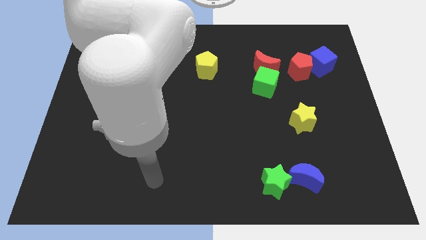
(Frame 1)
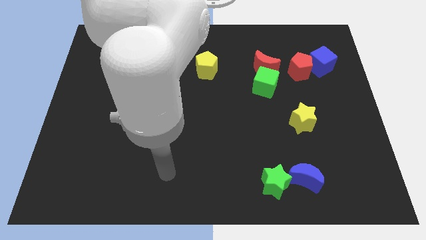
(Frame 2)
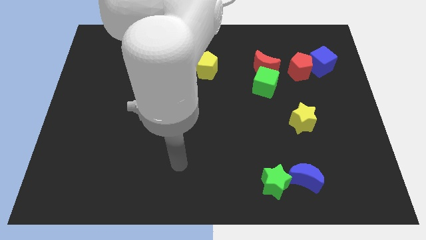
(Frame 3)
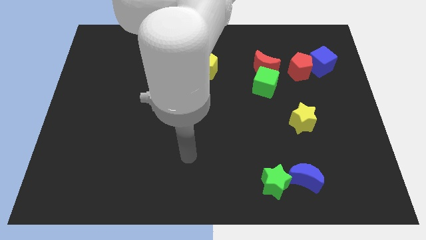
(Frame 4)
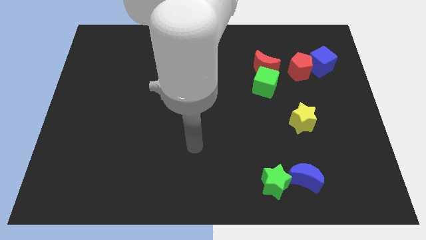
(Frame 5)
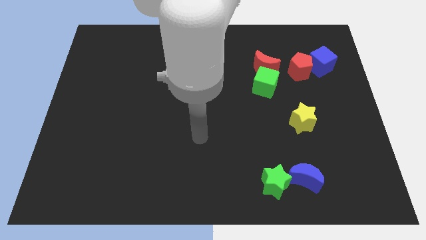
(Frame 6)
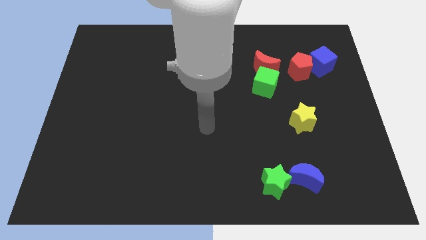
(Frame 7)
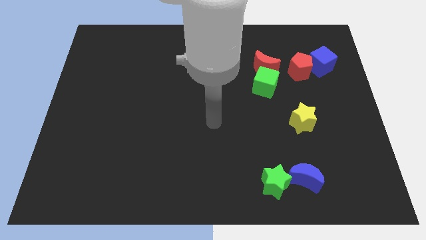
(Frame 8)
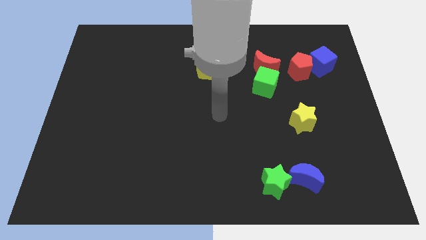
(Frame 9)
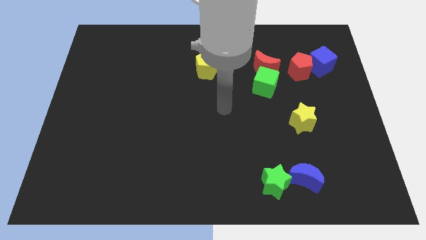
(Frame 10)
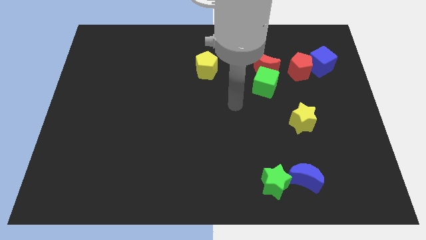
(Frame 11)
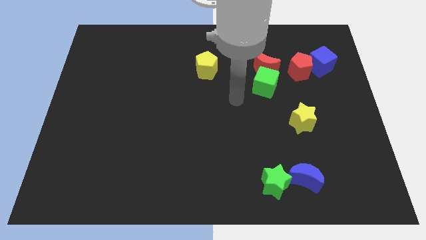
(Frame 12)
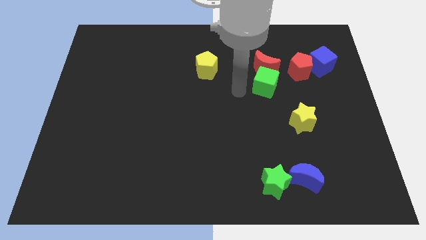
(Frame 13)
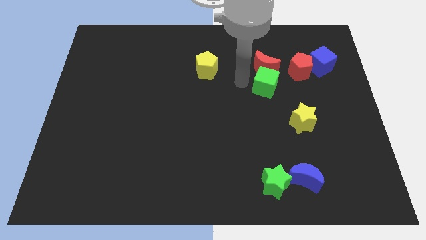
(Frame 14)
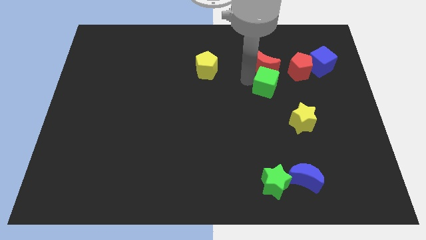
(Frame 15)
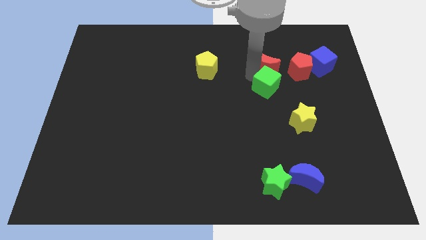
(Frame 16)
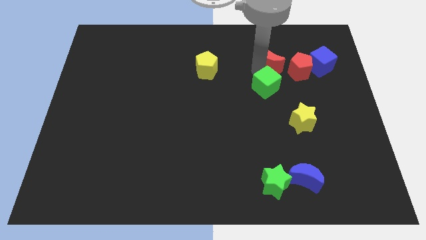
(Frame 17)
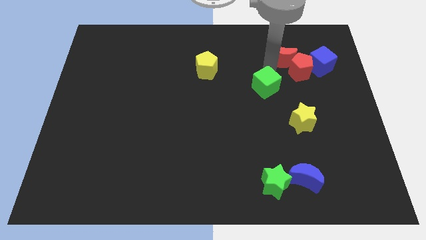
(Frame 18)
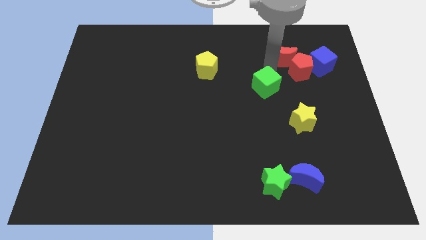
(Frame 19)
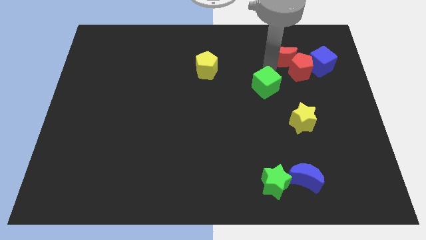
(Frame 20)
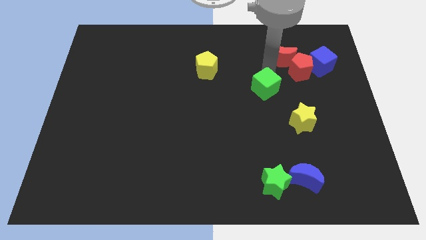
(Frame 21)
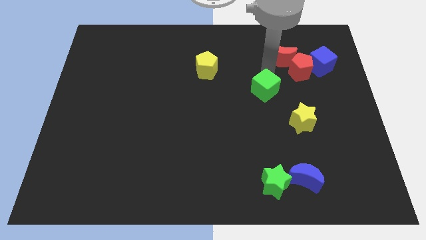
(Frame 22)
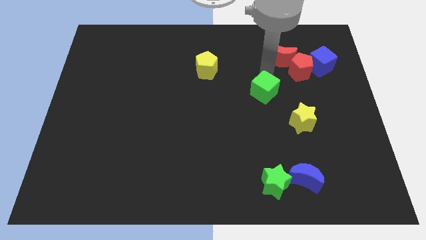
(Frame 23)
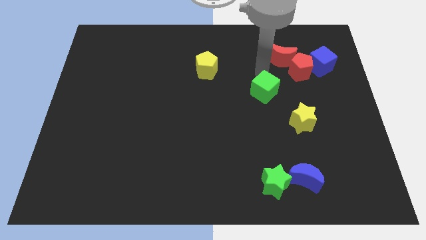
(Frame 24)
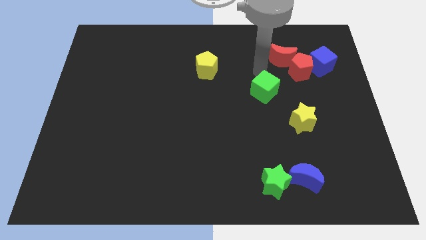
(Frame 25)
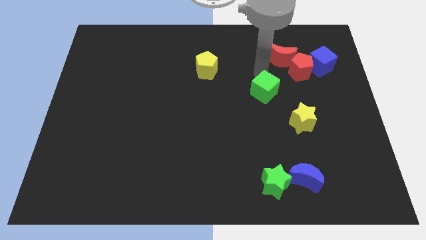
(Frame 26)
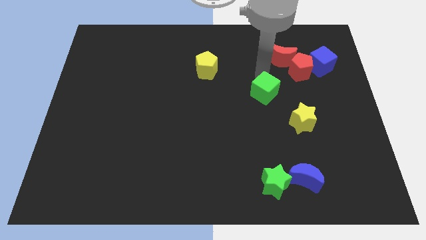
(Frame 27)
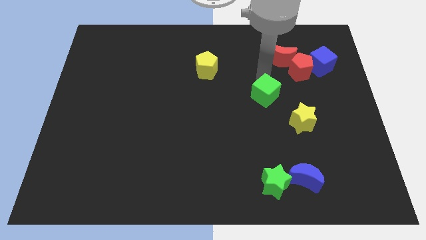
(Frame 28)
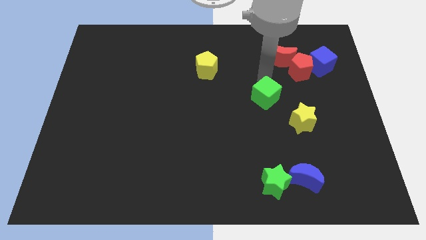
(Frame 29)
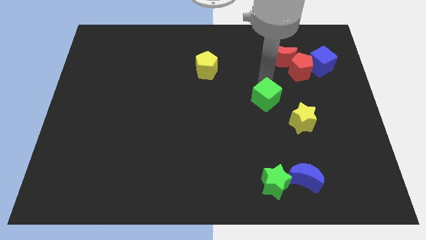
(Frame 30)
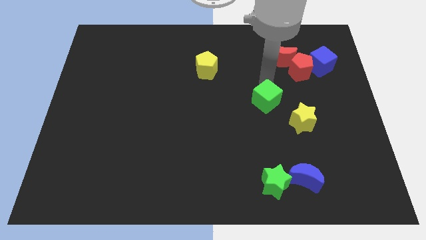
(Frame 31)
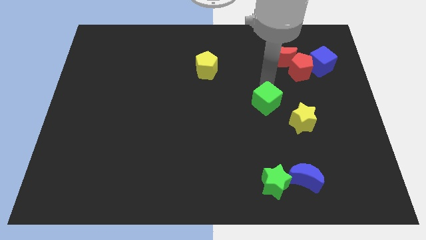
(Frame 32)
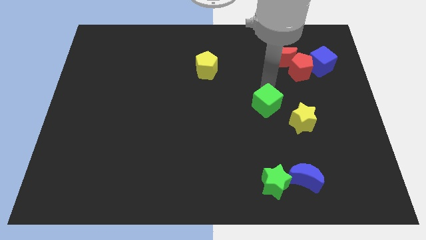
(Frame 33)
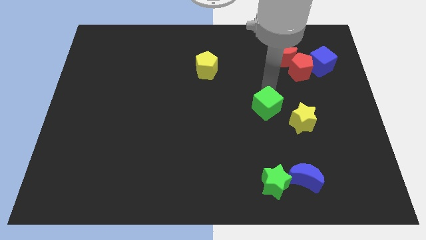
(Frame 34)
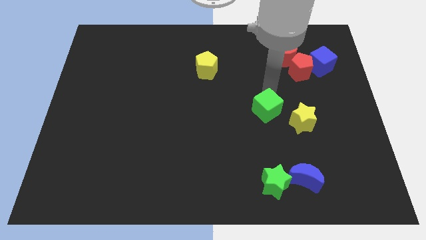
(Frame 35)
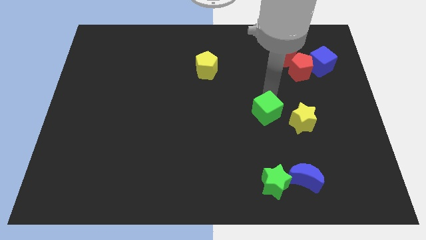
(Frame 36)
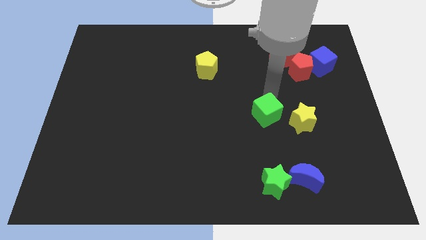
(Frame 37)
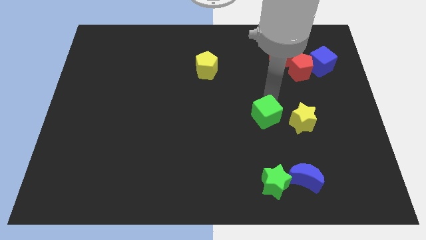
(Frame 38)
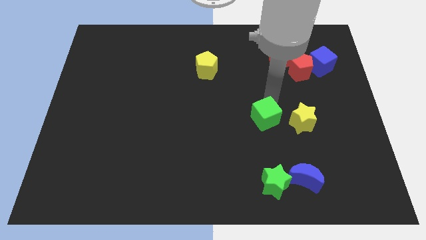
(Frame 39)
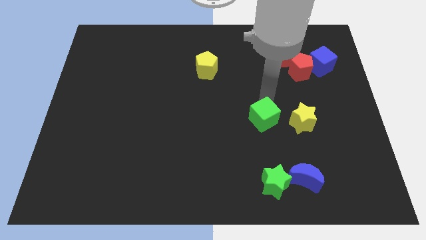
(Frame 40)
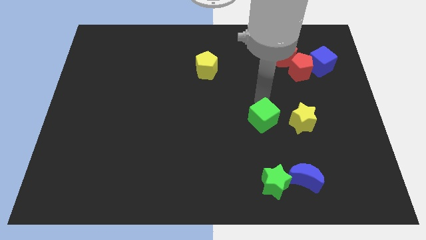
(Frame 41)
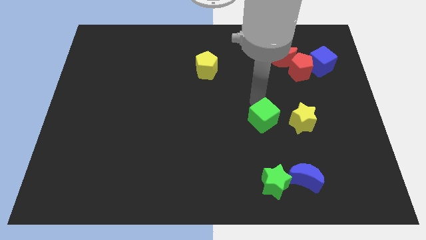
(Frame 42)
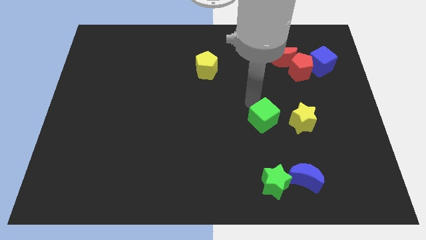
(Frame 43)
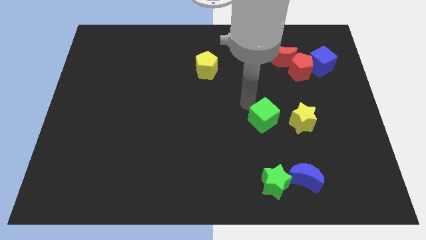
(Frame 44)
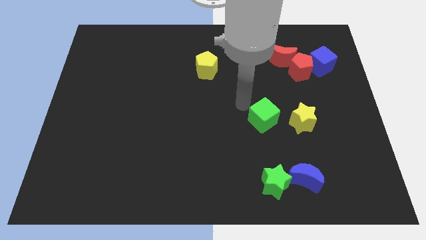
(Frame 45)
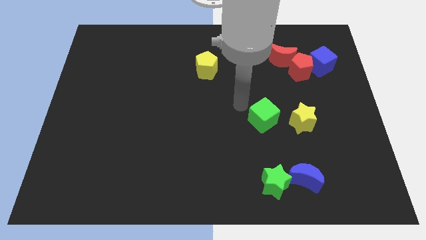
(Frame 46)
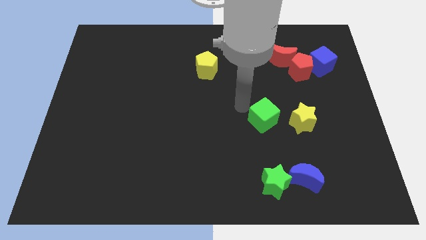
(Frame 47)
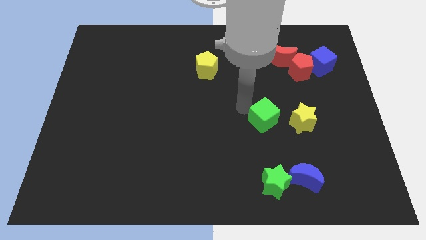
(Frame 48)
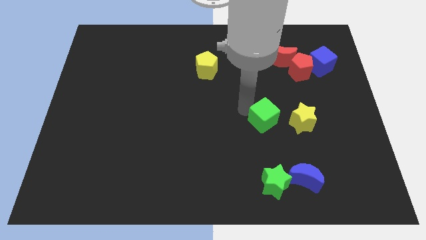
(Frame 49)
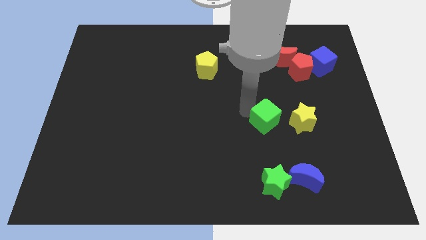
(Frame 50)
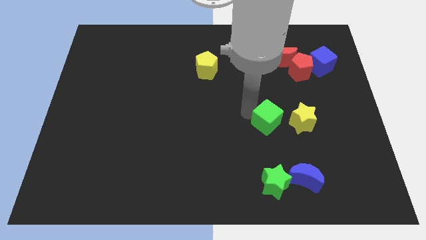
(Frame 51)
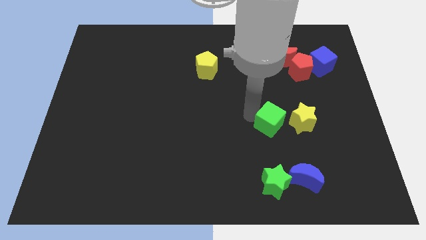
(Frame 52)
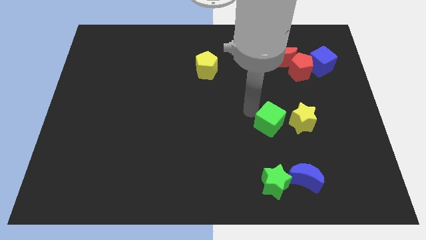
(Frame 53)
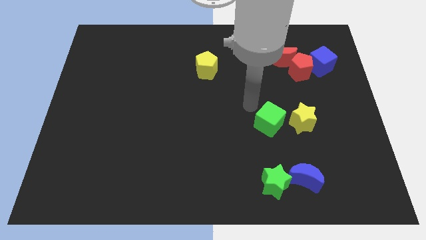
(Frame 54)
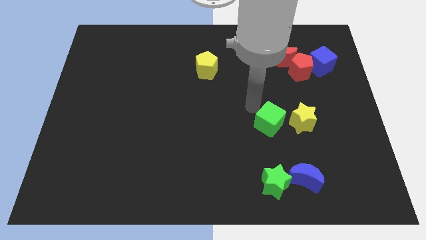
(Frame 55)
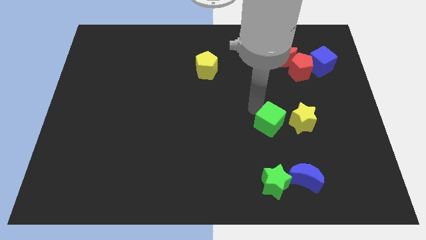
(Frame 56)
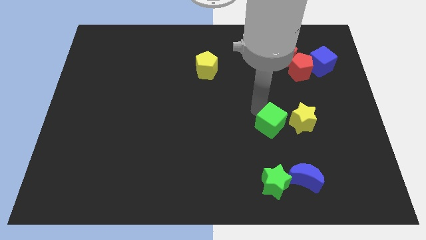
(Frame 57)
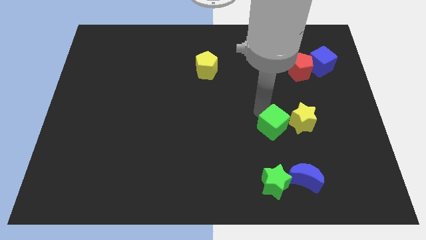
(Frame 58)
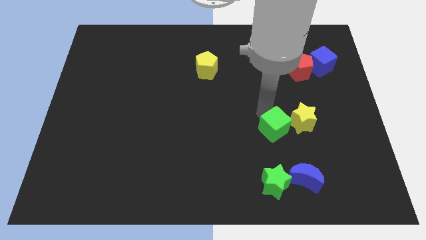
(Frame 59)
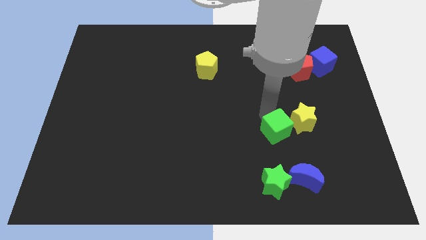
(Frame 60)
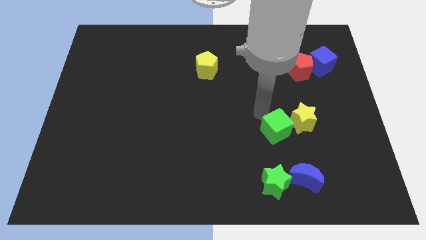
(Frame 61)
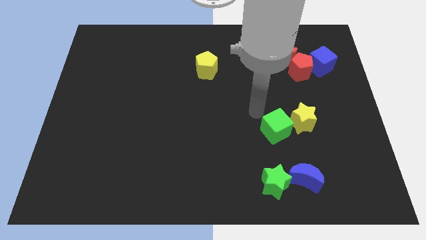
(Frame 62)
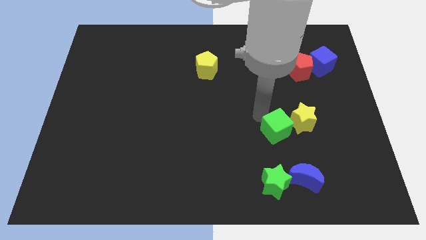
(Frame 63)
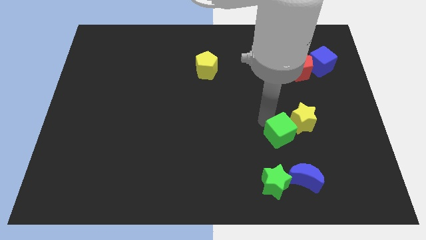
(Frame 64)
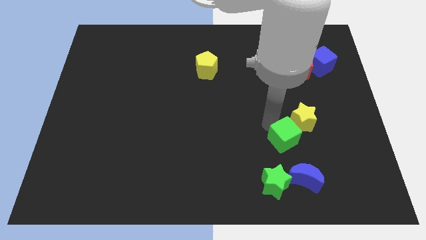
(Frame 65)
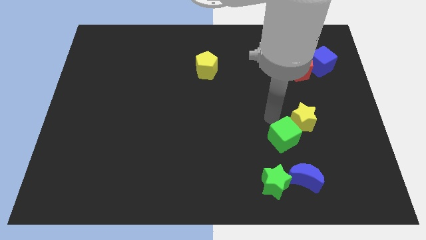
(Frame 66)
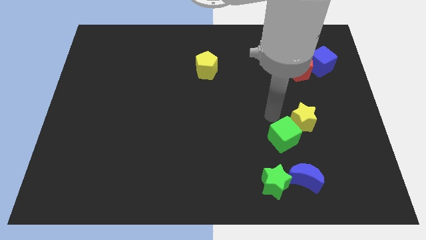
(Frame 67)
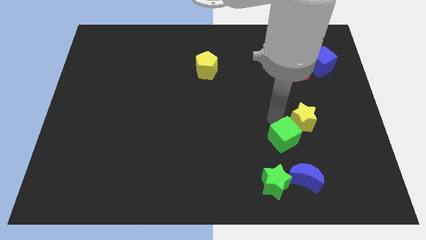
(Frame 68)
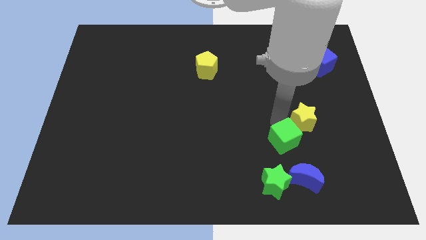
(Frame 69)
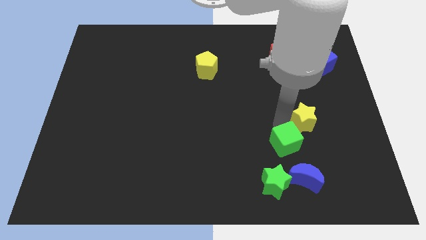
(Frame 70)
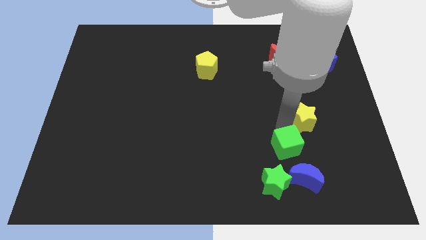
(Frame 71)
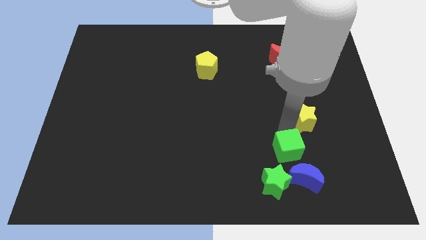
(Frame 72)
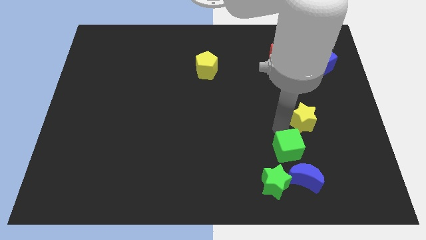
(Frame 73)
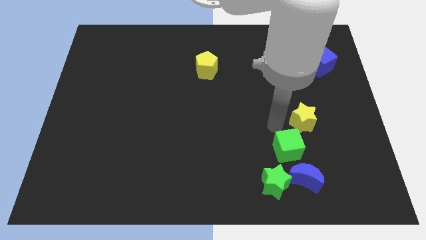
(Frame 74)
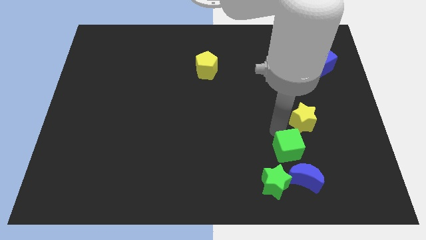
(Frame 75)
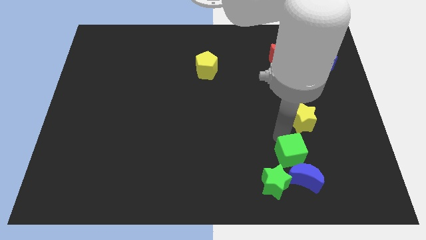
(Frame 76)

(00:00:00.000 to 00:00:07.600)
put the green cube close to the blue moon

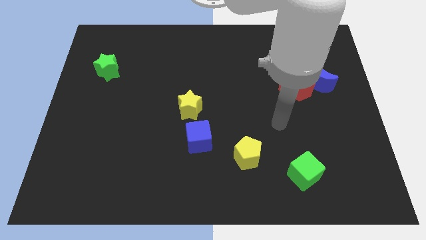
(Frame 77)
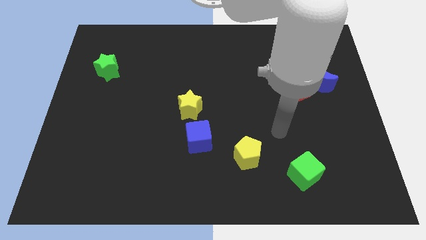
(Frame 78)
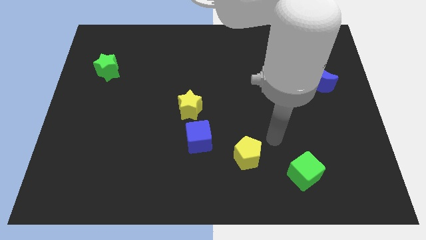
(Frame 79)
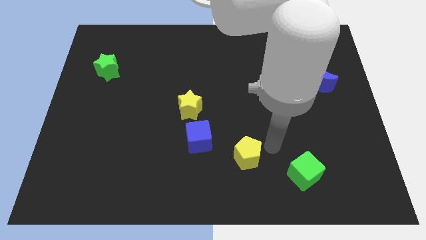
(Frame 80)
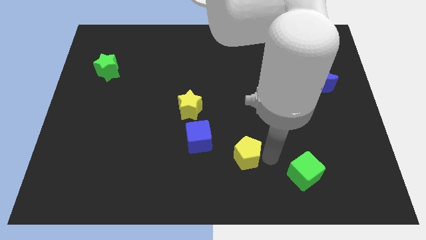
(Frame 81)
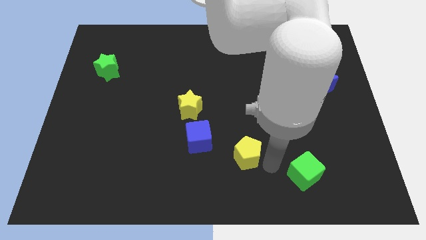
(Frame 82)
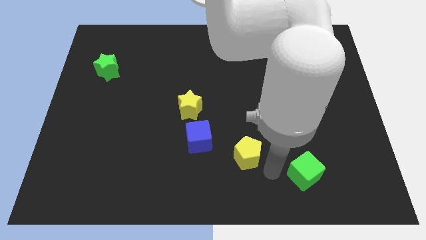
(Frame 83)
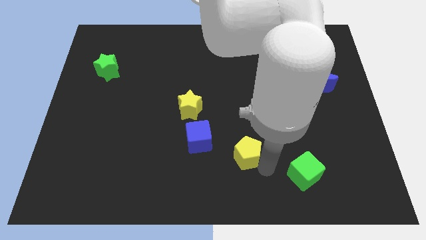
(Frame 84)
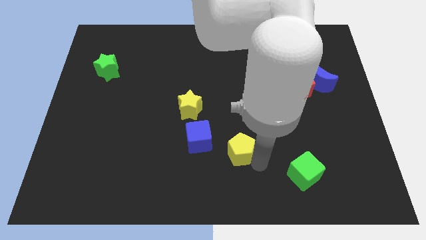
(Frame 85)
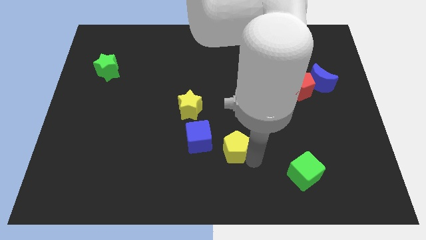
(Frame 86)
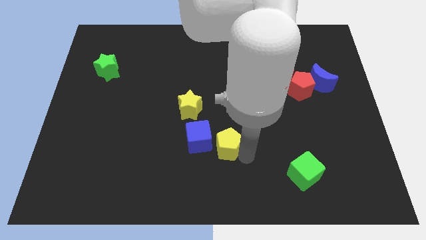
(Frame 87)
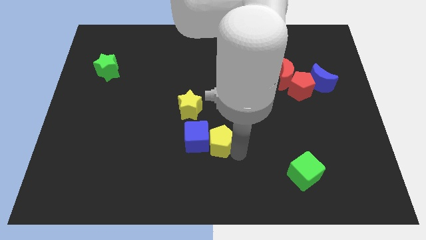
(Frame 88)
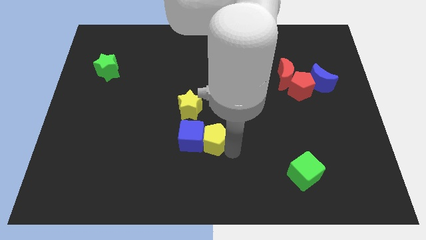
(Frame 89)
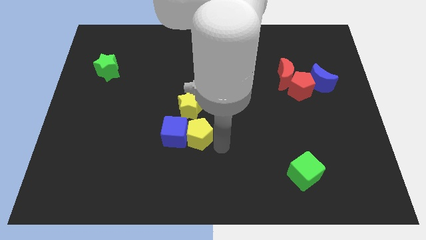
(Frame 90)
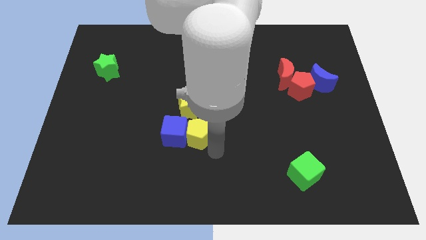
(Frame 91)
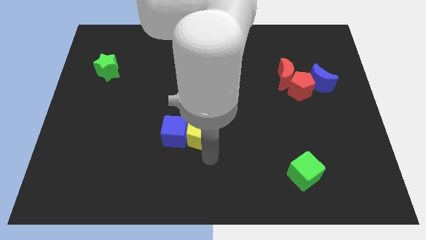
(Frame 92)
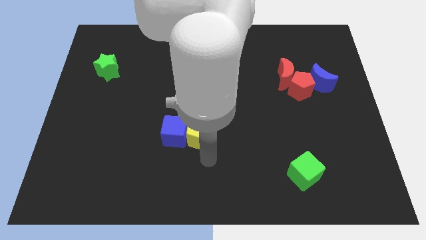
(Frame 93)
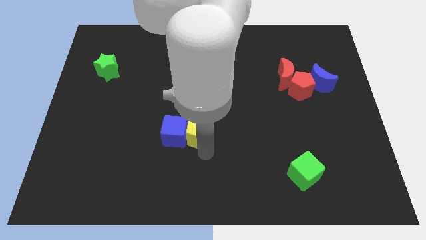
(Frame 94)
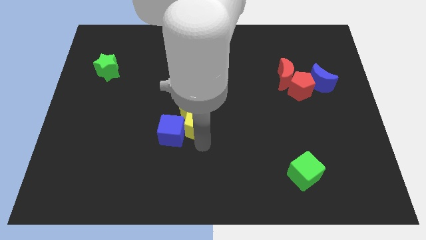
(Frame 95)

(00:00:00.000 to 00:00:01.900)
move the yellow pentagon to the yellow star
